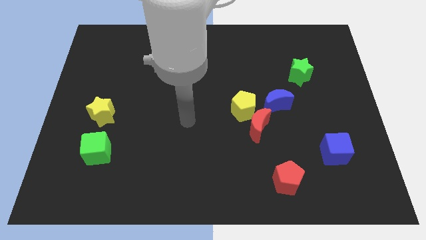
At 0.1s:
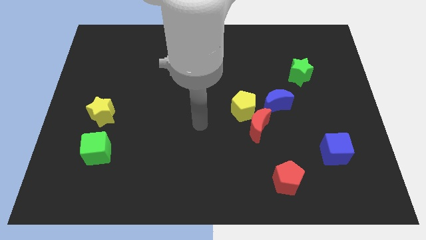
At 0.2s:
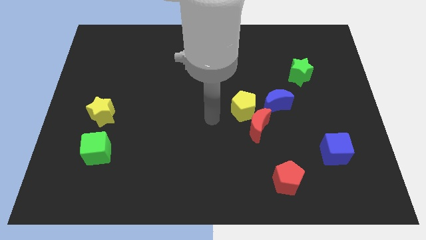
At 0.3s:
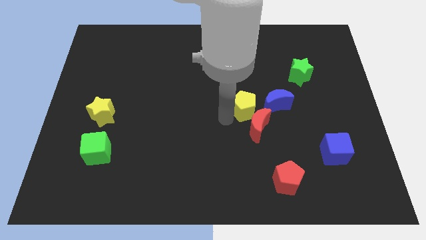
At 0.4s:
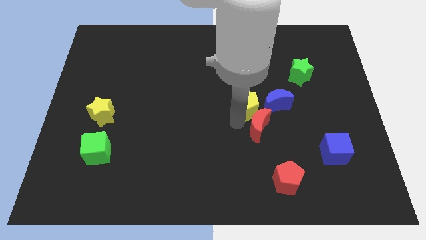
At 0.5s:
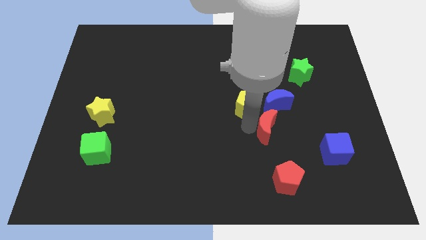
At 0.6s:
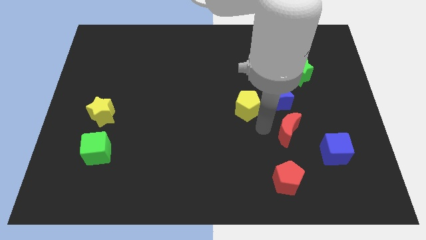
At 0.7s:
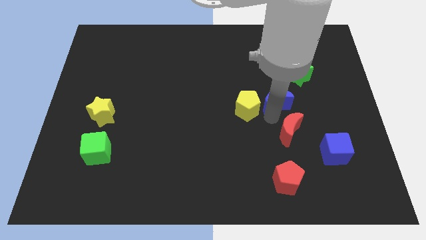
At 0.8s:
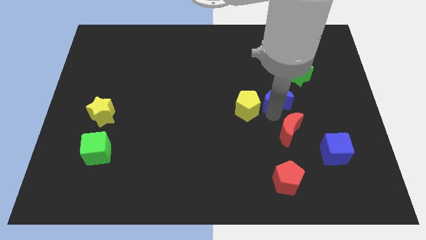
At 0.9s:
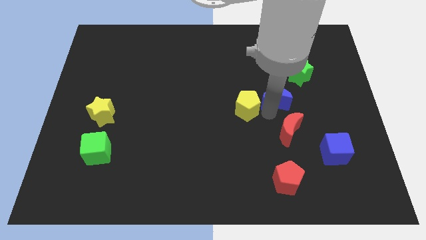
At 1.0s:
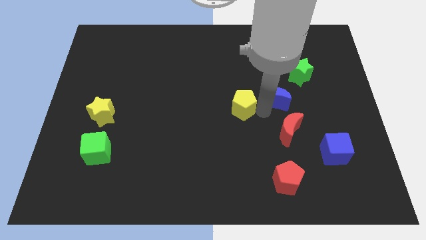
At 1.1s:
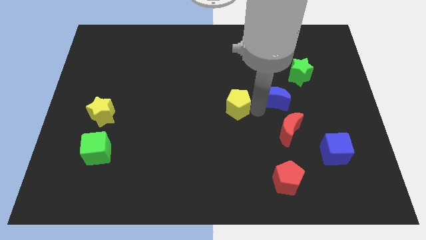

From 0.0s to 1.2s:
move the yellow pentagon away from the red moon and blue moon

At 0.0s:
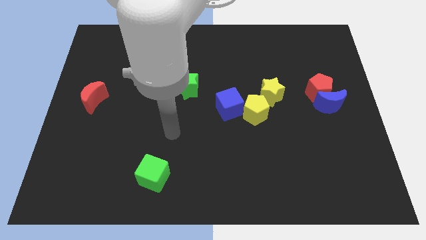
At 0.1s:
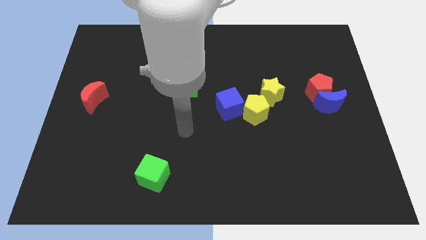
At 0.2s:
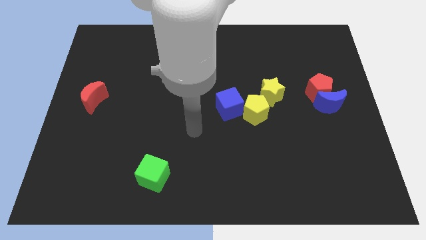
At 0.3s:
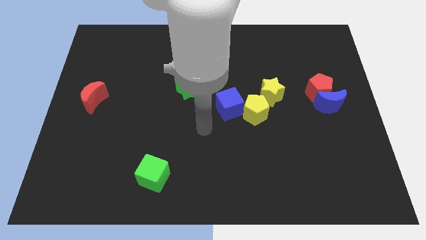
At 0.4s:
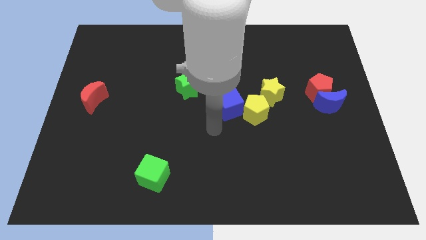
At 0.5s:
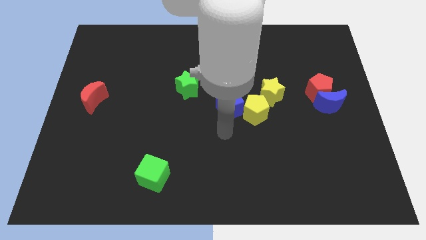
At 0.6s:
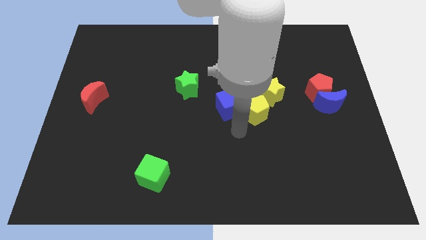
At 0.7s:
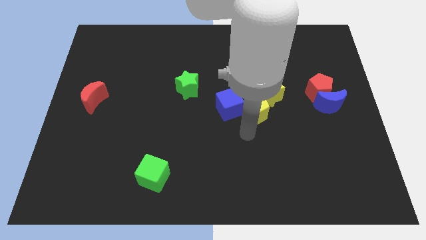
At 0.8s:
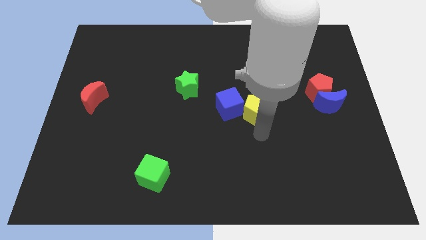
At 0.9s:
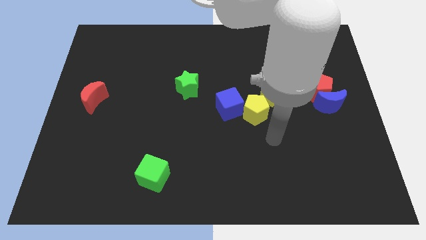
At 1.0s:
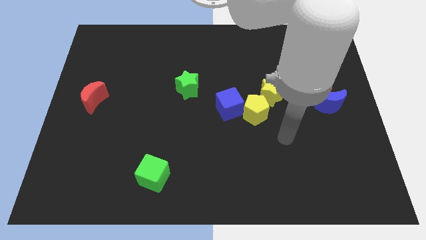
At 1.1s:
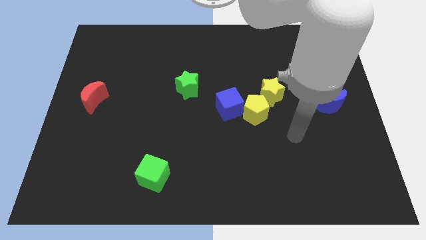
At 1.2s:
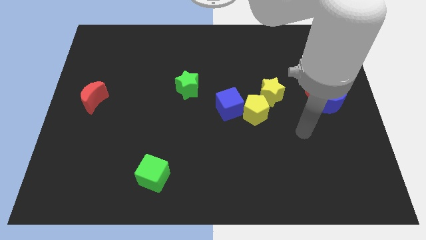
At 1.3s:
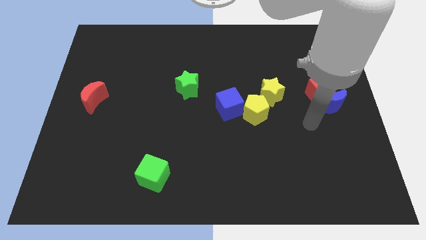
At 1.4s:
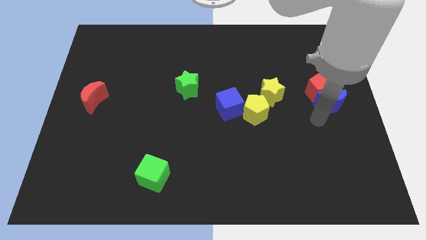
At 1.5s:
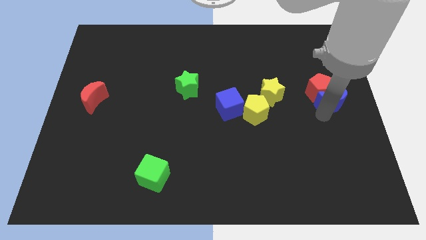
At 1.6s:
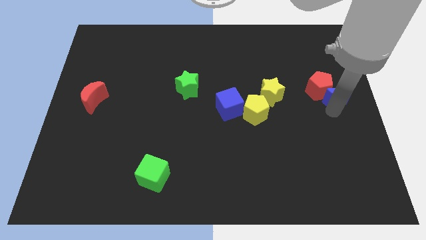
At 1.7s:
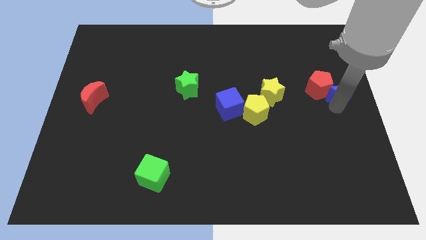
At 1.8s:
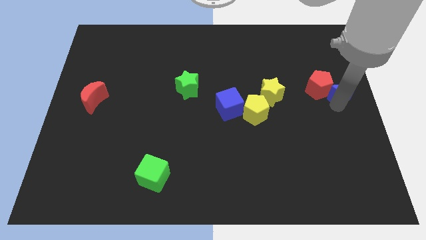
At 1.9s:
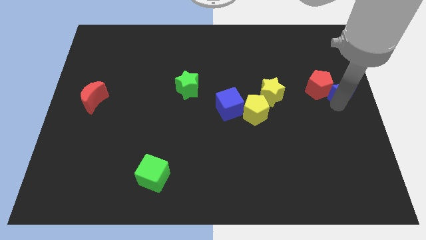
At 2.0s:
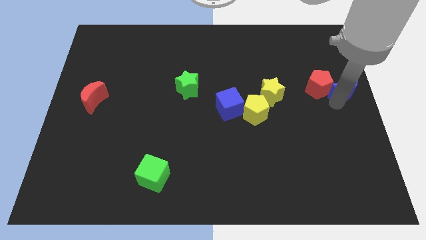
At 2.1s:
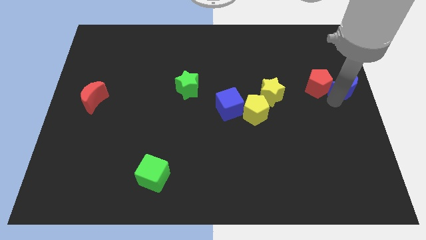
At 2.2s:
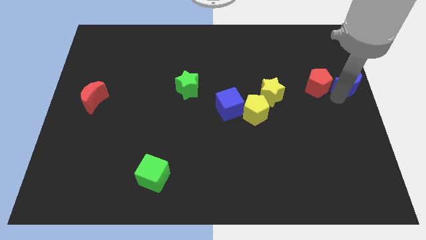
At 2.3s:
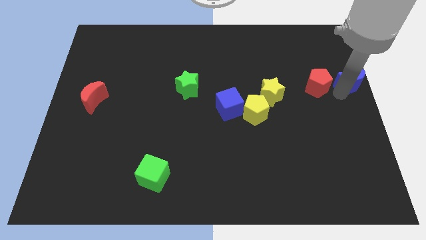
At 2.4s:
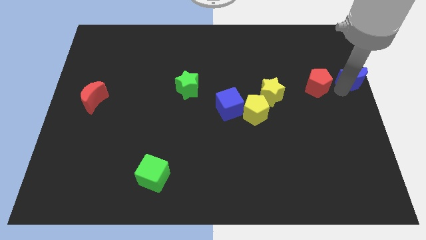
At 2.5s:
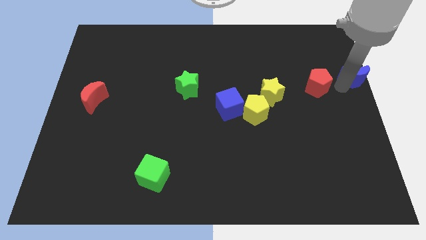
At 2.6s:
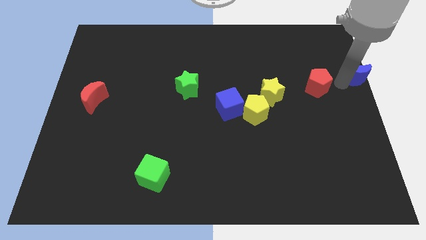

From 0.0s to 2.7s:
separate the red pentagon from the blue moon

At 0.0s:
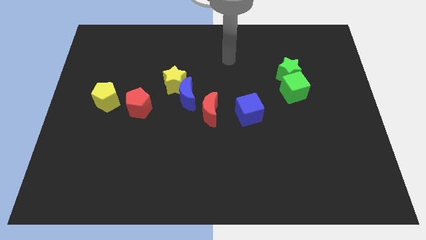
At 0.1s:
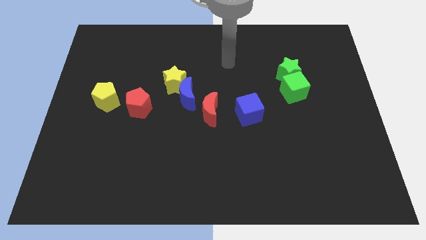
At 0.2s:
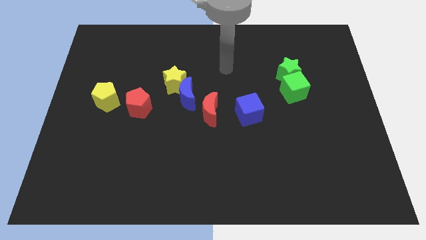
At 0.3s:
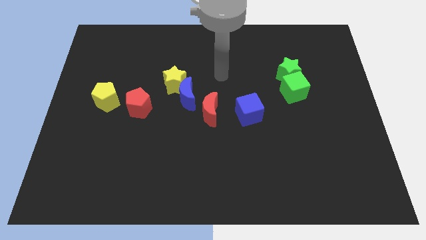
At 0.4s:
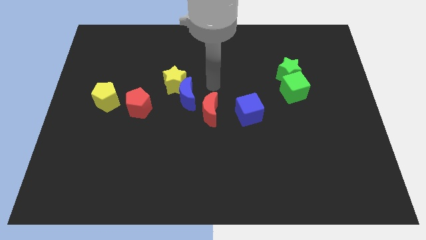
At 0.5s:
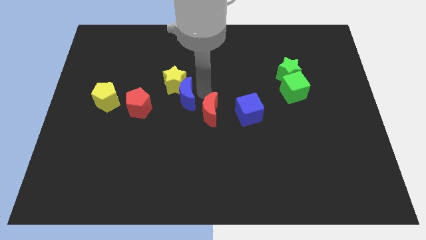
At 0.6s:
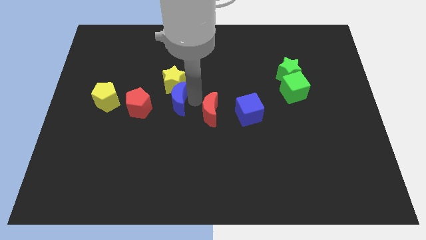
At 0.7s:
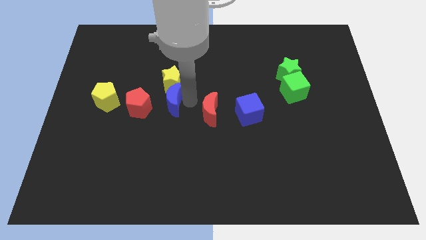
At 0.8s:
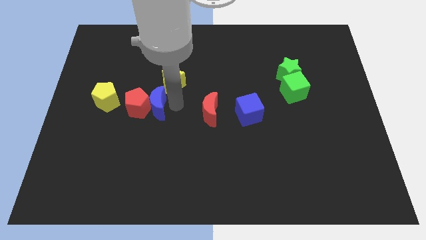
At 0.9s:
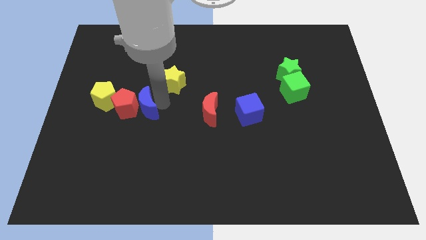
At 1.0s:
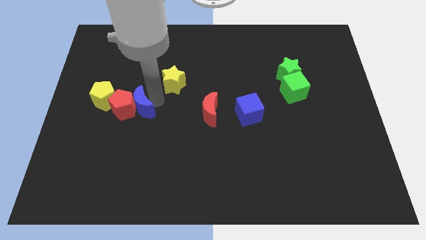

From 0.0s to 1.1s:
separate the yellow star from the blue moon

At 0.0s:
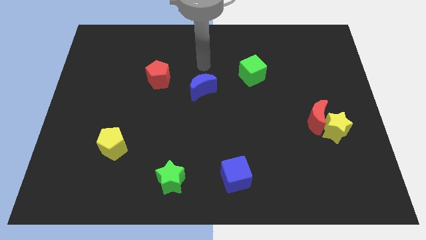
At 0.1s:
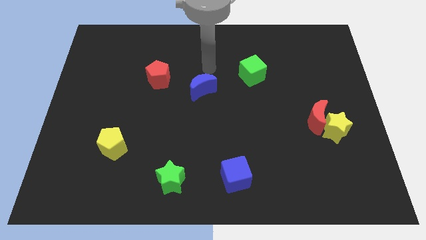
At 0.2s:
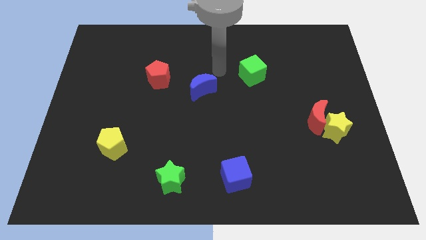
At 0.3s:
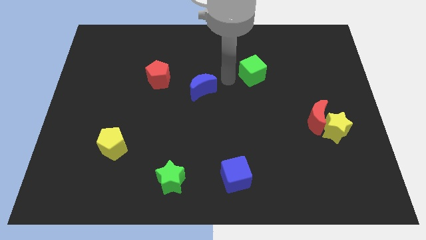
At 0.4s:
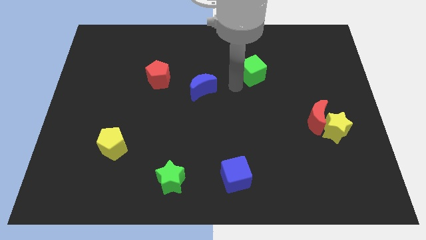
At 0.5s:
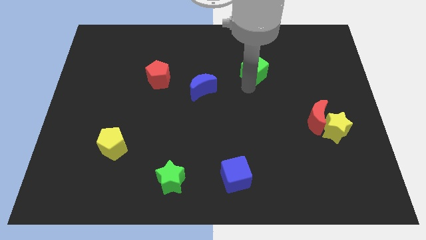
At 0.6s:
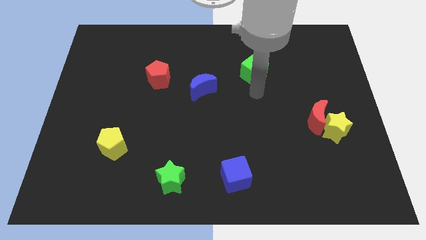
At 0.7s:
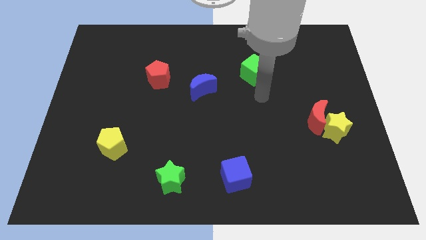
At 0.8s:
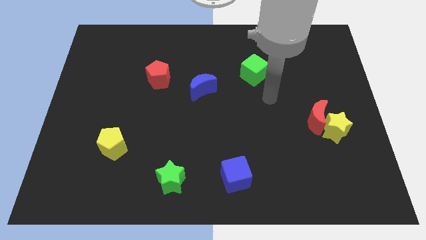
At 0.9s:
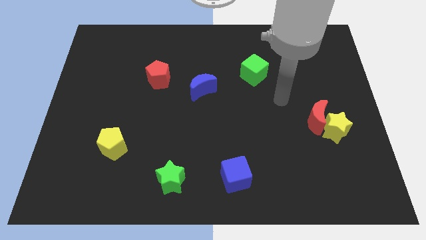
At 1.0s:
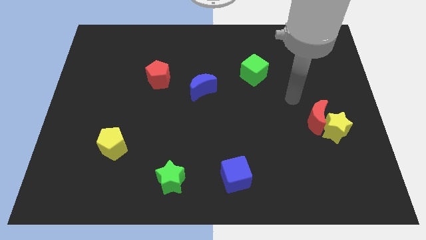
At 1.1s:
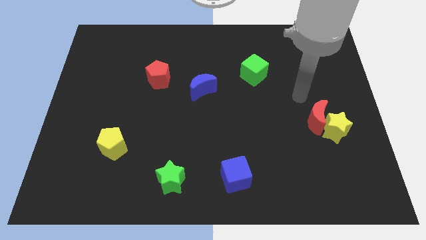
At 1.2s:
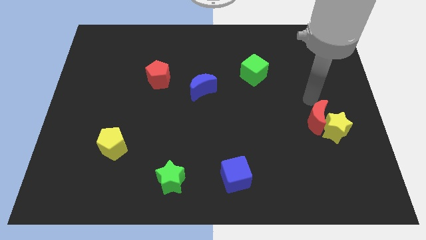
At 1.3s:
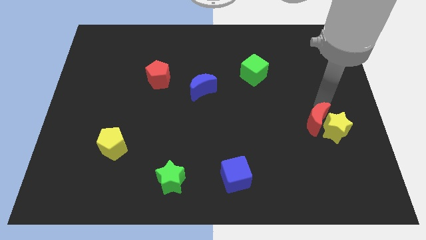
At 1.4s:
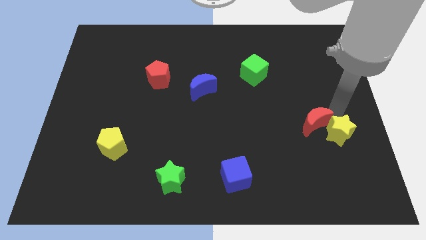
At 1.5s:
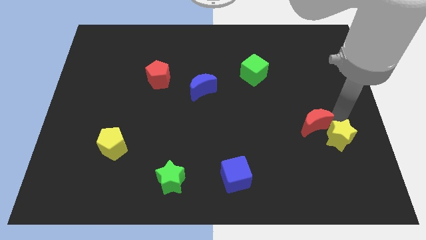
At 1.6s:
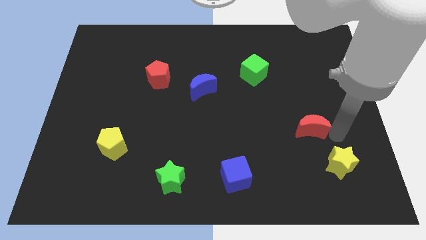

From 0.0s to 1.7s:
pull the red moon apart from the yellow star

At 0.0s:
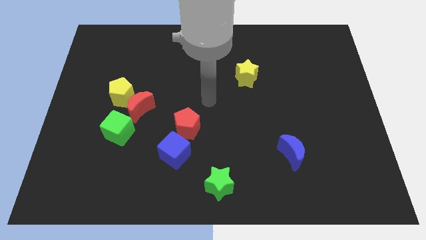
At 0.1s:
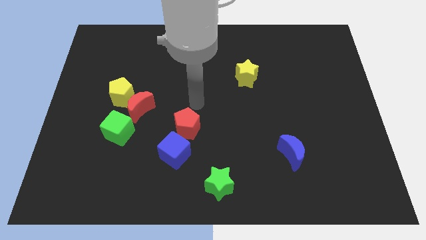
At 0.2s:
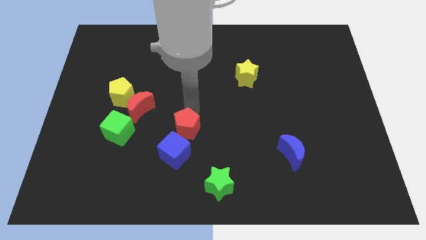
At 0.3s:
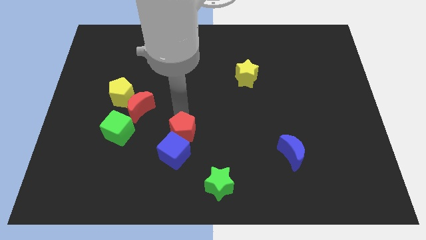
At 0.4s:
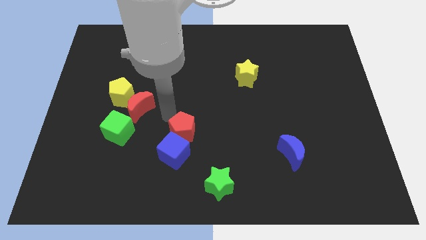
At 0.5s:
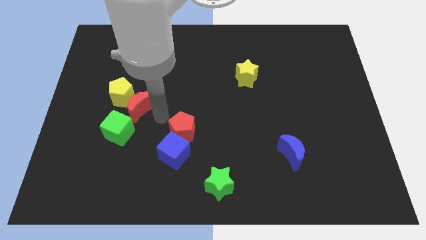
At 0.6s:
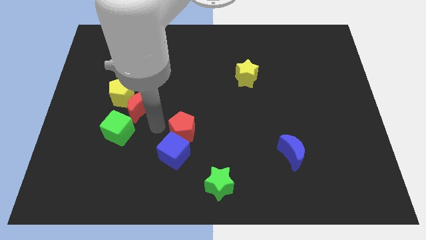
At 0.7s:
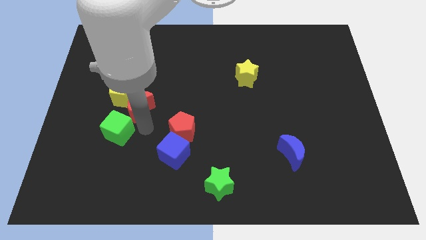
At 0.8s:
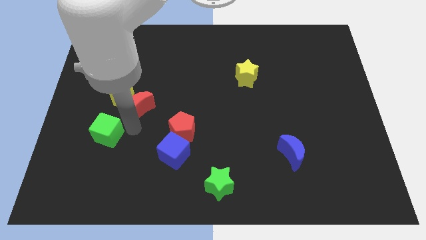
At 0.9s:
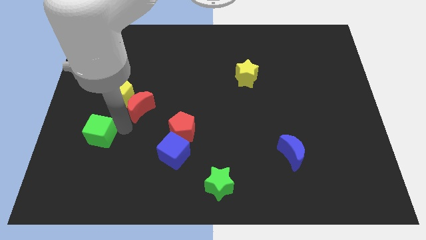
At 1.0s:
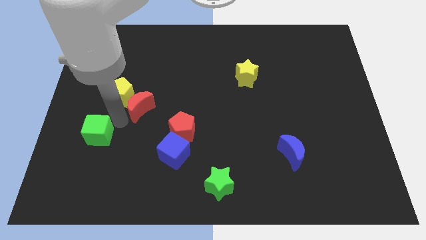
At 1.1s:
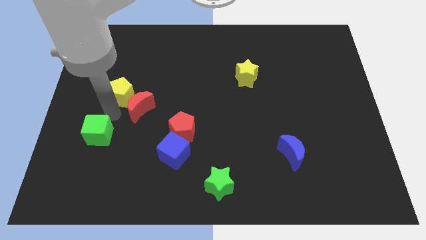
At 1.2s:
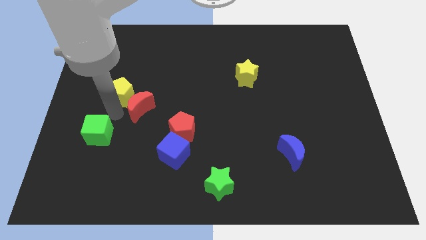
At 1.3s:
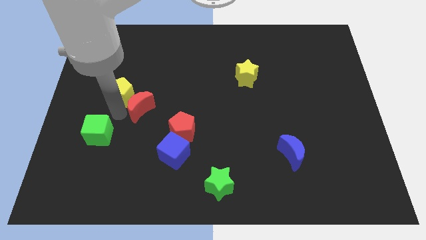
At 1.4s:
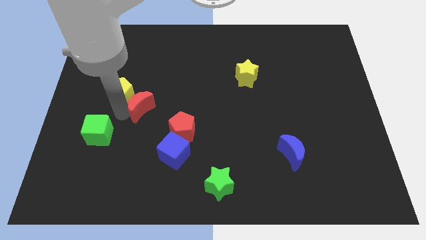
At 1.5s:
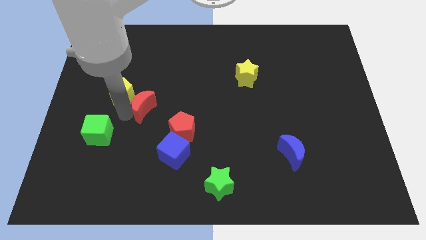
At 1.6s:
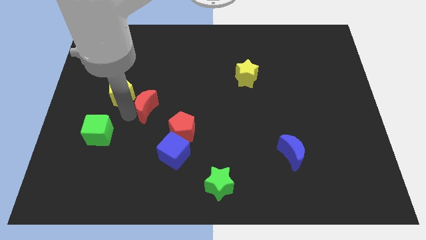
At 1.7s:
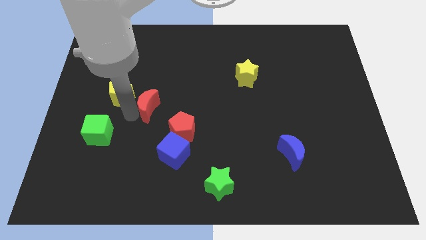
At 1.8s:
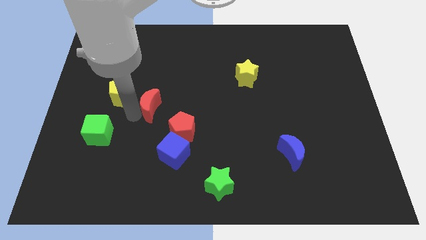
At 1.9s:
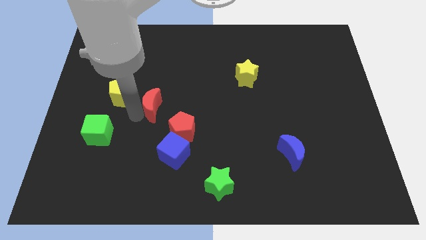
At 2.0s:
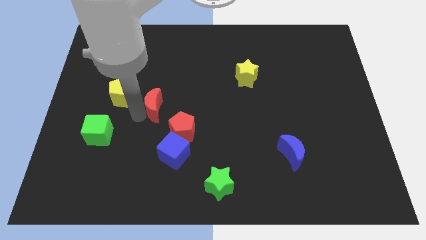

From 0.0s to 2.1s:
move the red moon away from the yellow pentagon and green cube

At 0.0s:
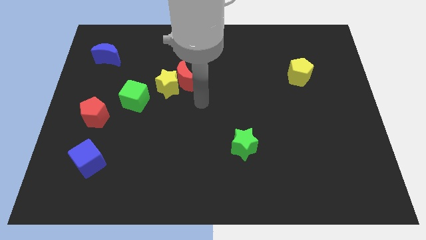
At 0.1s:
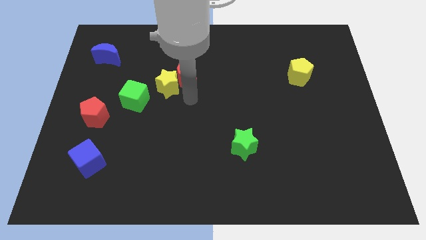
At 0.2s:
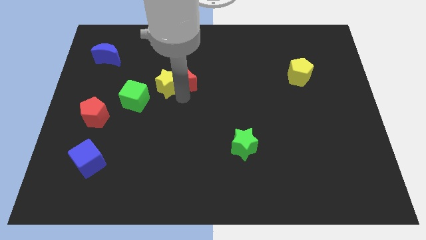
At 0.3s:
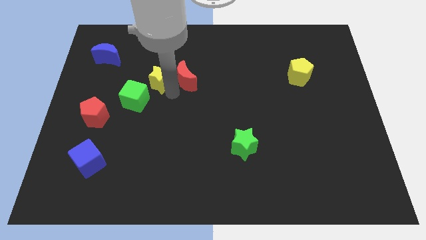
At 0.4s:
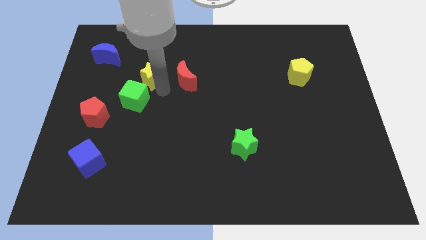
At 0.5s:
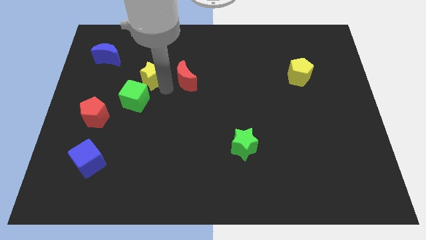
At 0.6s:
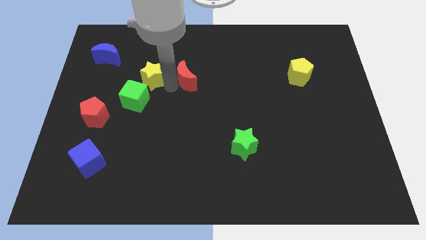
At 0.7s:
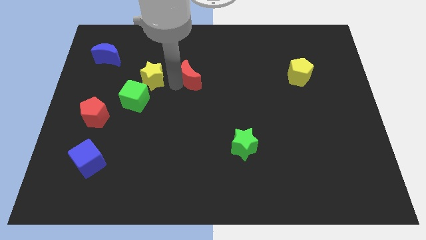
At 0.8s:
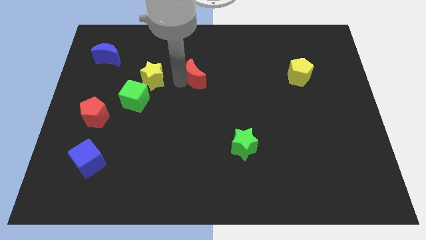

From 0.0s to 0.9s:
separate the red moon from the yellow star
